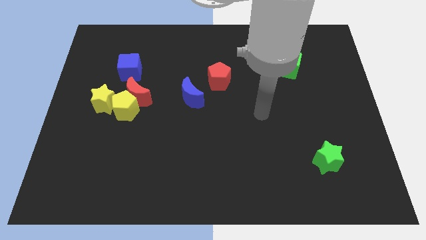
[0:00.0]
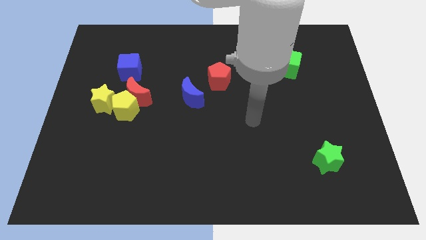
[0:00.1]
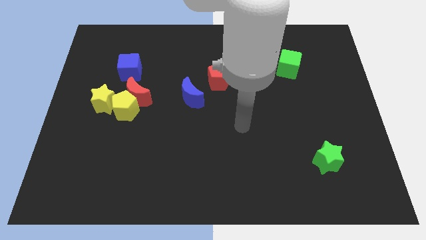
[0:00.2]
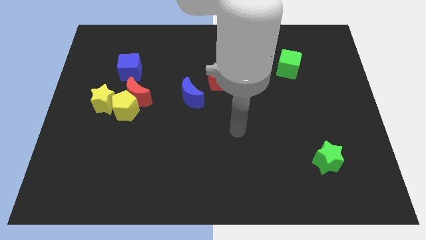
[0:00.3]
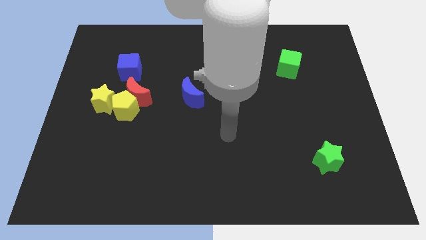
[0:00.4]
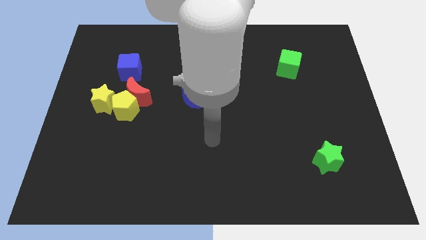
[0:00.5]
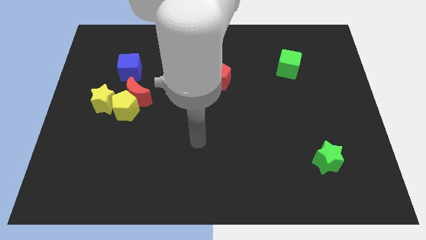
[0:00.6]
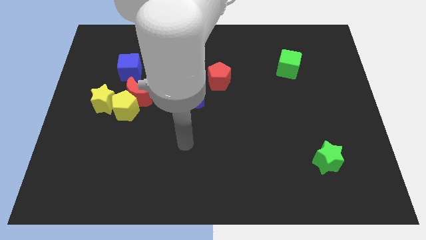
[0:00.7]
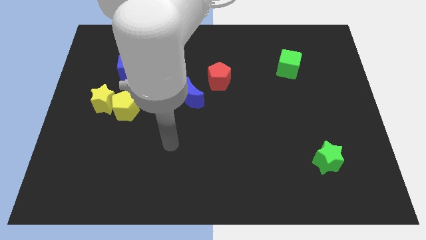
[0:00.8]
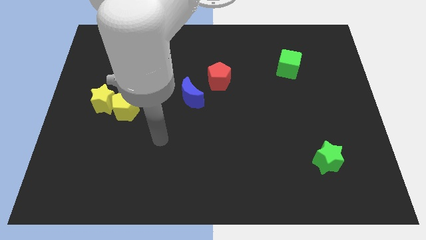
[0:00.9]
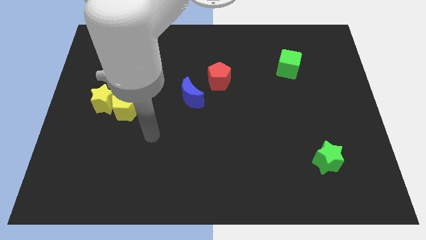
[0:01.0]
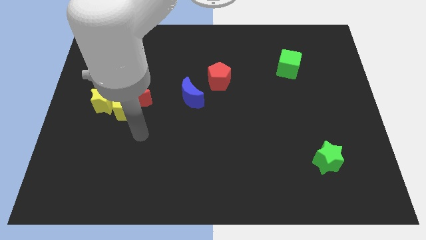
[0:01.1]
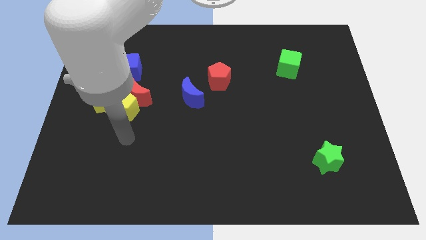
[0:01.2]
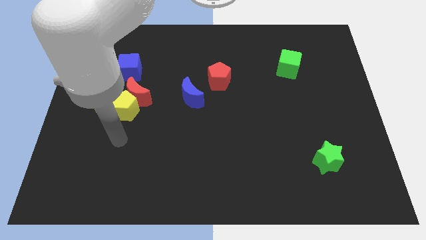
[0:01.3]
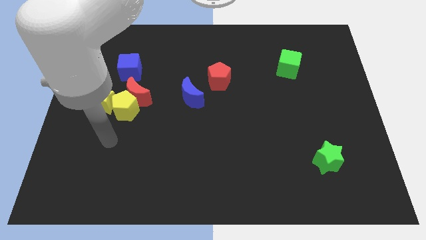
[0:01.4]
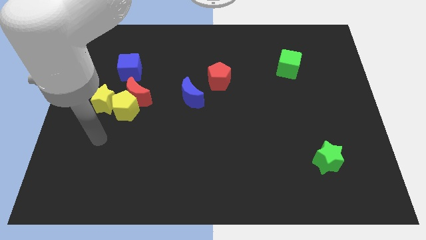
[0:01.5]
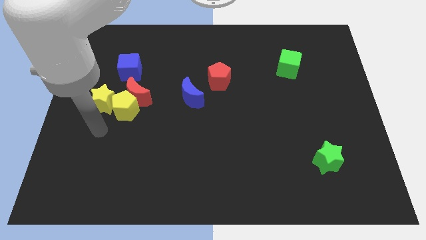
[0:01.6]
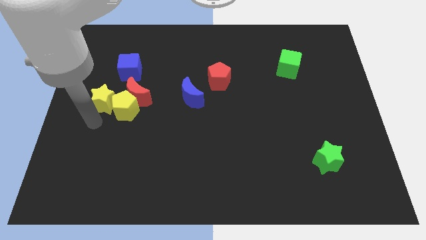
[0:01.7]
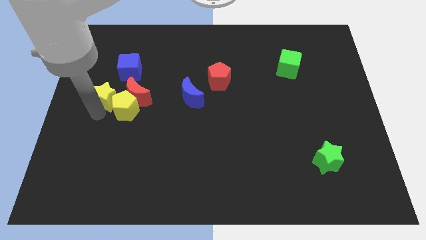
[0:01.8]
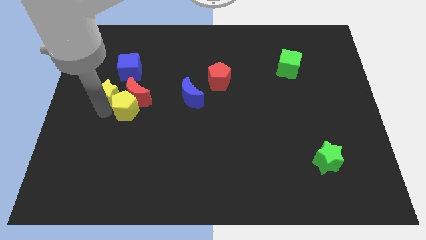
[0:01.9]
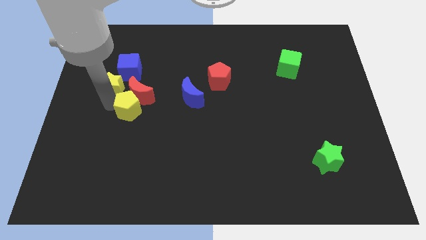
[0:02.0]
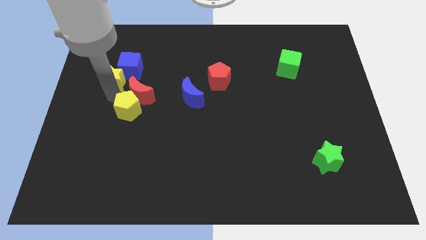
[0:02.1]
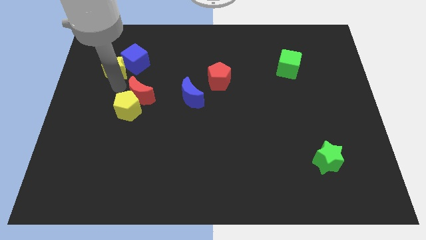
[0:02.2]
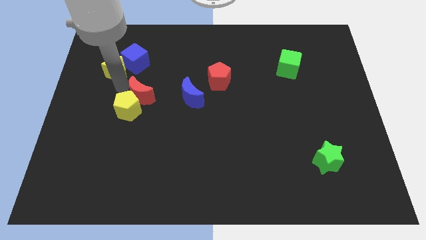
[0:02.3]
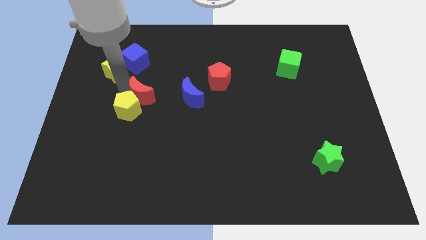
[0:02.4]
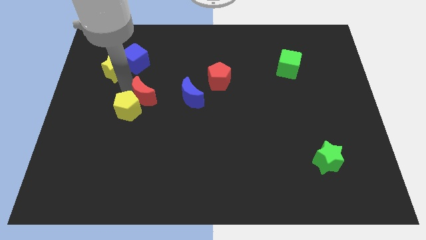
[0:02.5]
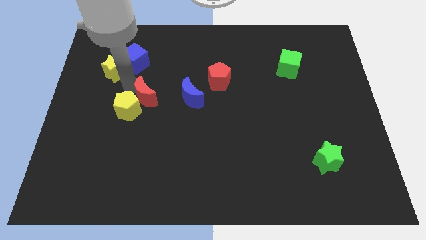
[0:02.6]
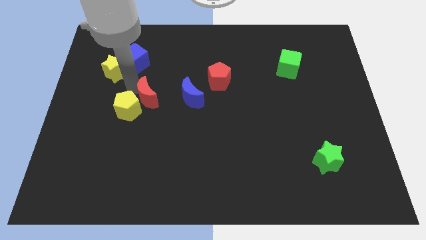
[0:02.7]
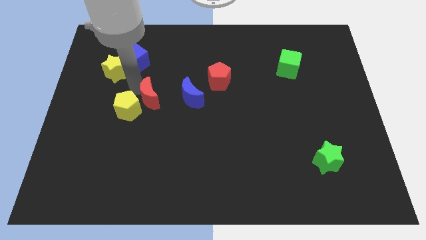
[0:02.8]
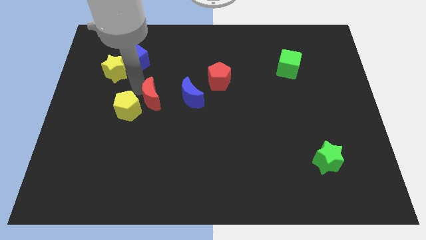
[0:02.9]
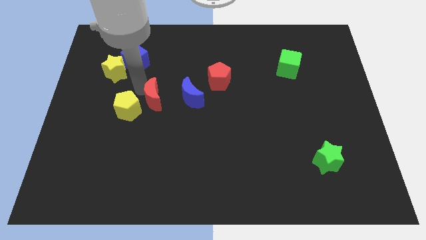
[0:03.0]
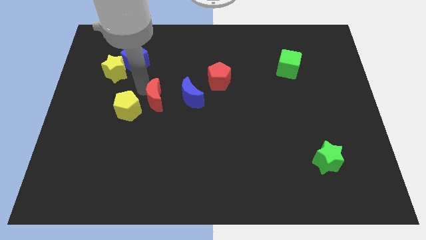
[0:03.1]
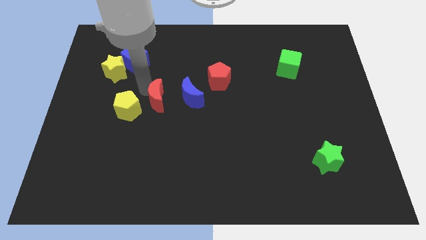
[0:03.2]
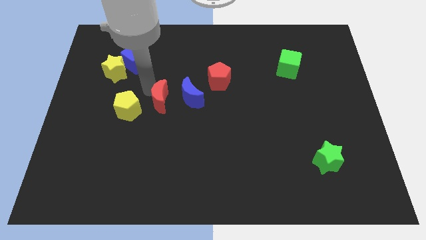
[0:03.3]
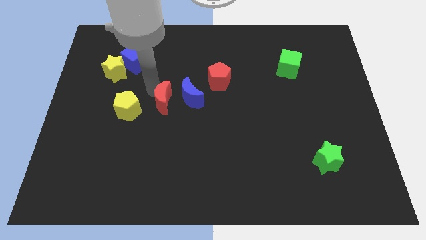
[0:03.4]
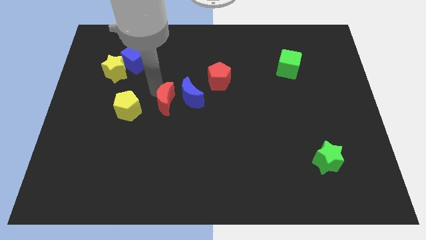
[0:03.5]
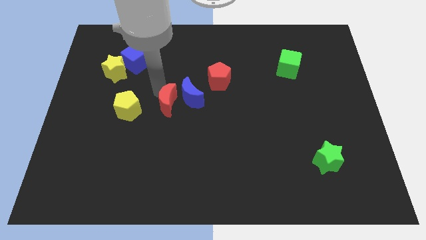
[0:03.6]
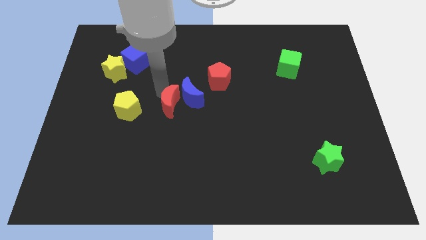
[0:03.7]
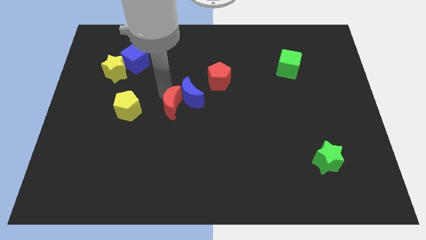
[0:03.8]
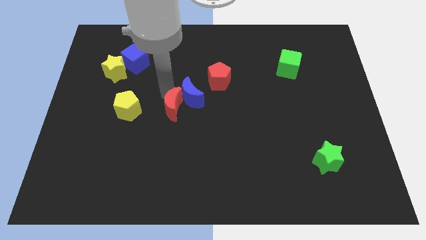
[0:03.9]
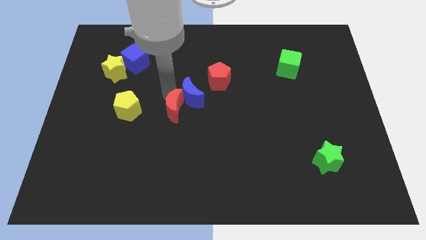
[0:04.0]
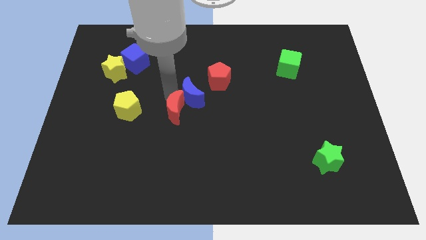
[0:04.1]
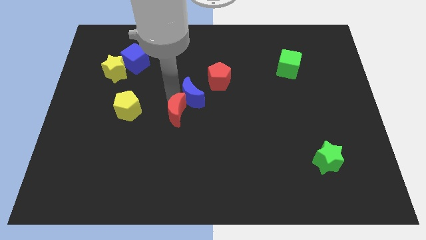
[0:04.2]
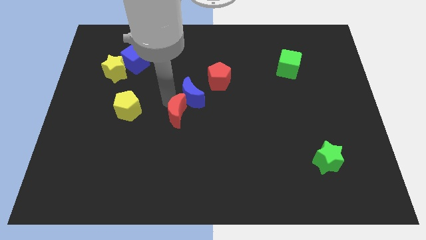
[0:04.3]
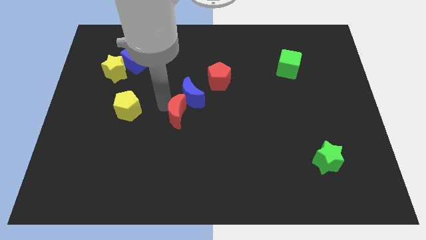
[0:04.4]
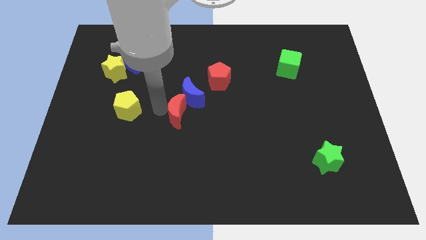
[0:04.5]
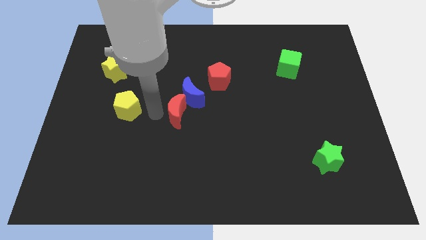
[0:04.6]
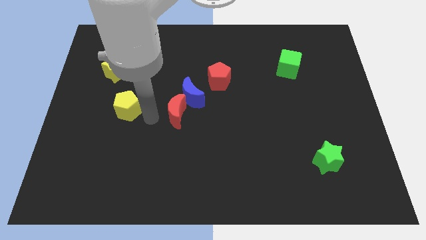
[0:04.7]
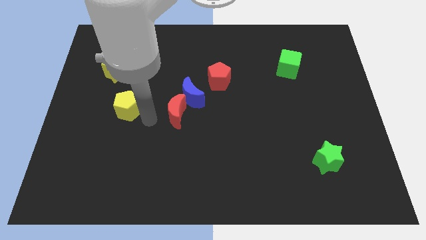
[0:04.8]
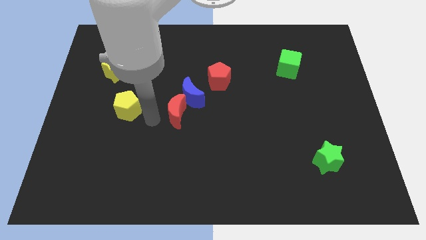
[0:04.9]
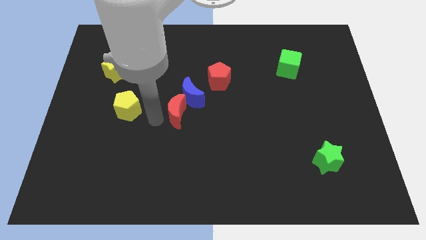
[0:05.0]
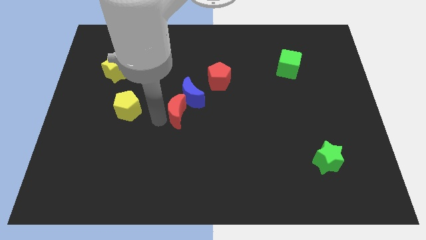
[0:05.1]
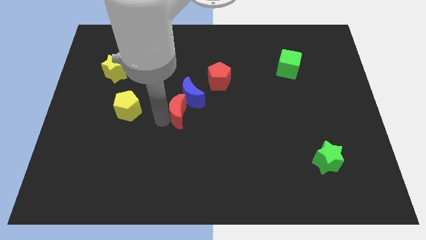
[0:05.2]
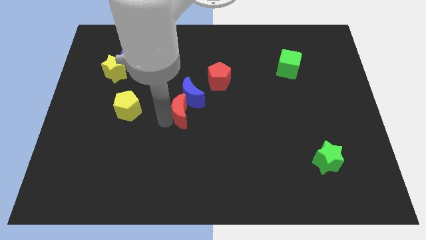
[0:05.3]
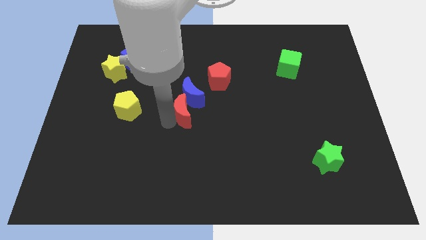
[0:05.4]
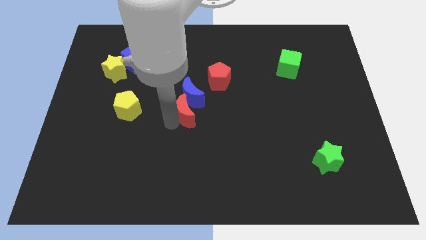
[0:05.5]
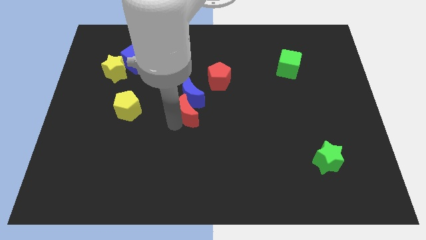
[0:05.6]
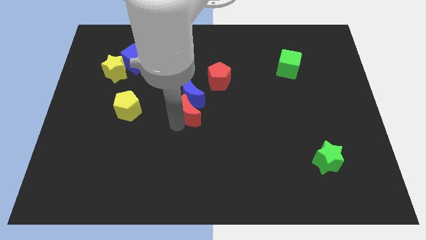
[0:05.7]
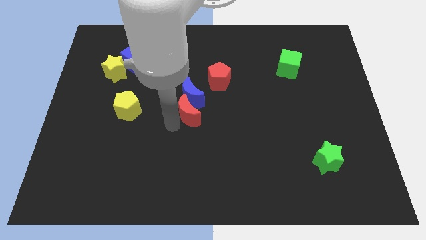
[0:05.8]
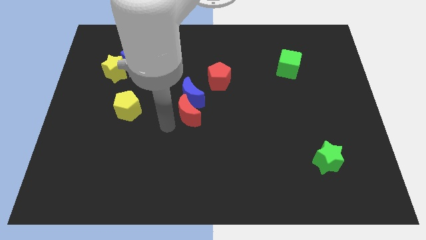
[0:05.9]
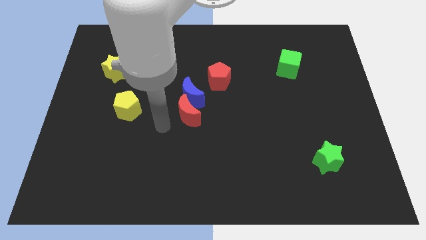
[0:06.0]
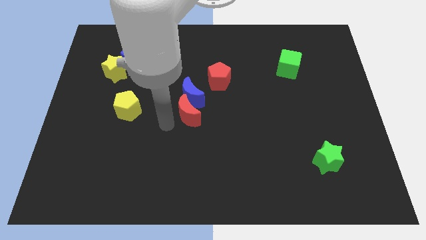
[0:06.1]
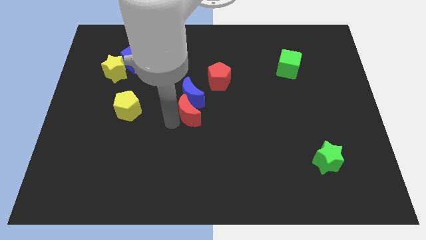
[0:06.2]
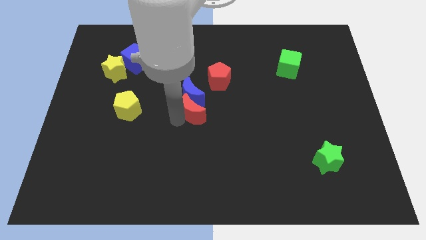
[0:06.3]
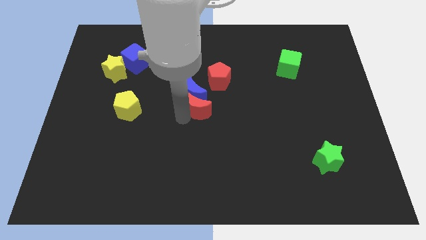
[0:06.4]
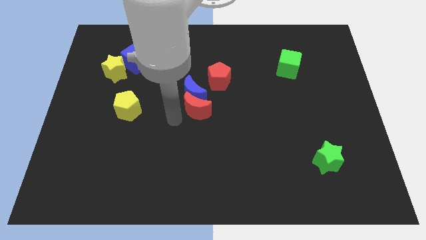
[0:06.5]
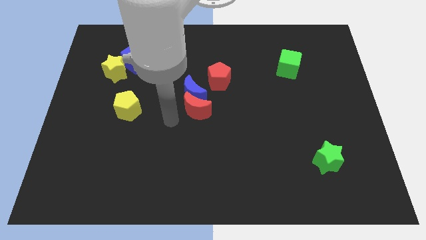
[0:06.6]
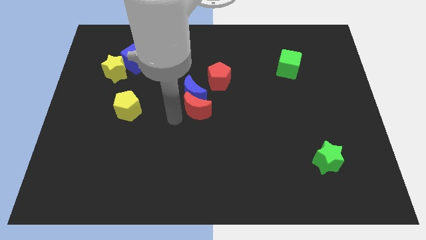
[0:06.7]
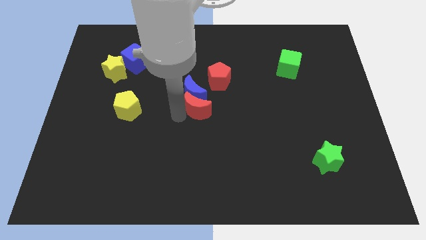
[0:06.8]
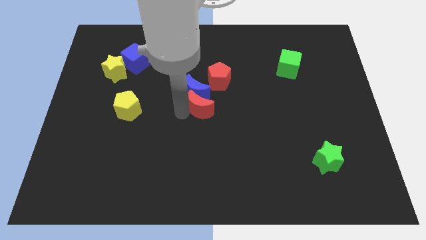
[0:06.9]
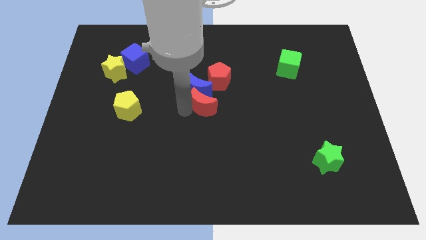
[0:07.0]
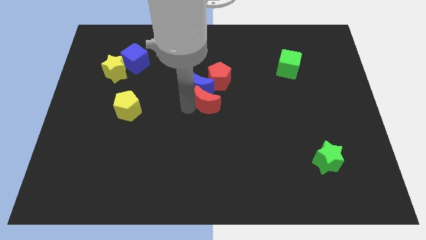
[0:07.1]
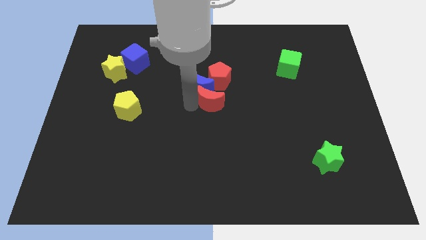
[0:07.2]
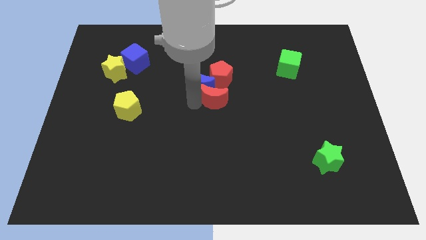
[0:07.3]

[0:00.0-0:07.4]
slide the red moon to the right side of the blue moon
